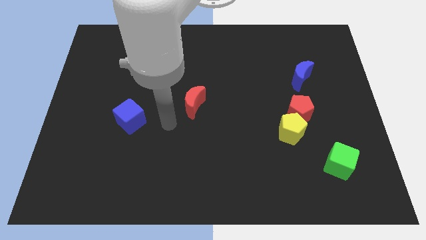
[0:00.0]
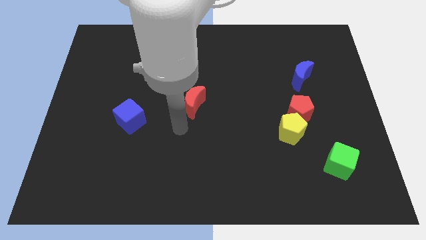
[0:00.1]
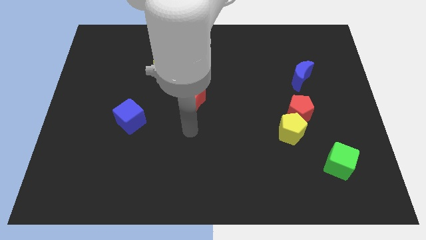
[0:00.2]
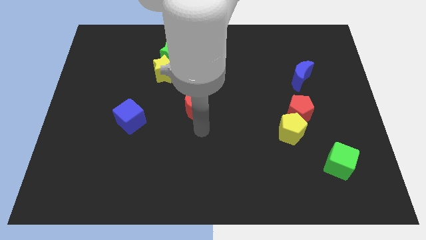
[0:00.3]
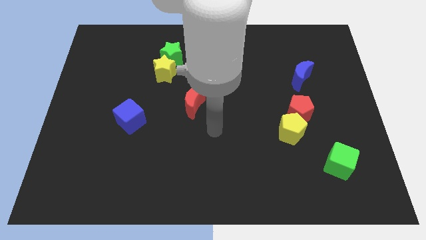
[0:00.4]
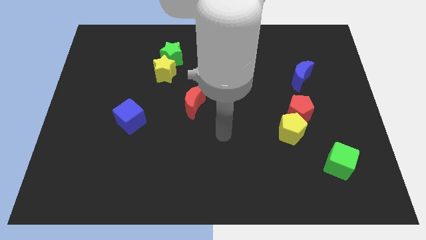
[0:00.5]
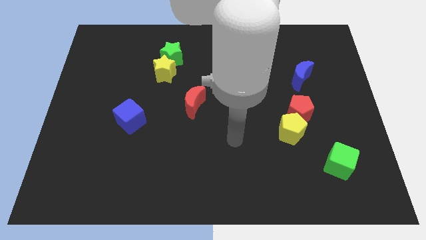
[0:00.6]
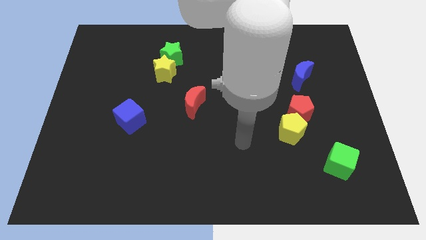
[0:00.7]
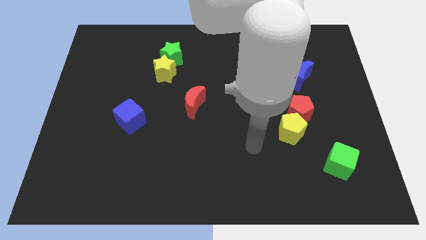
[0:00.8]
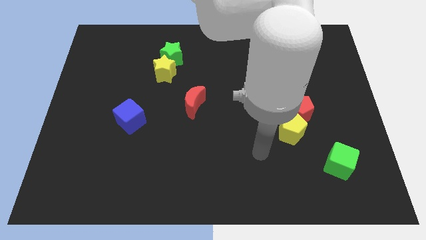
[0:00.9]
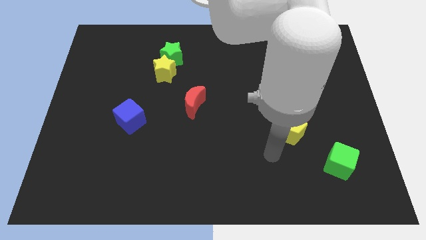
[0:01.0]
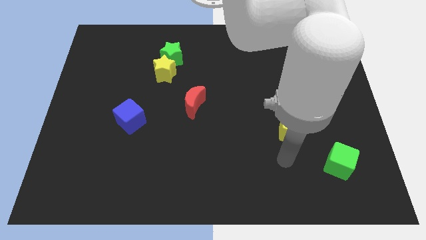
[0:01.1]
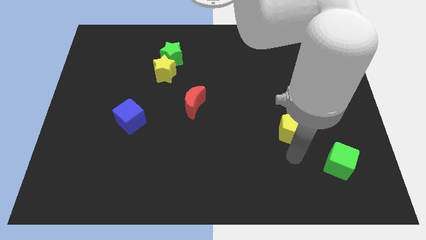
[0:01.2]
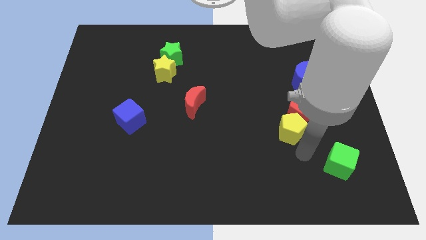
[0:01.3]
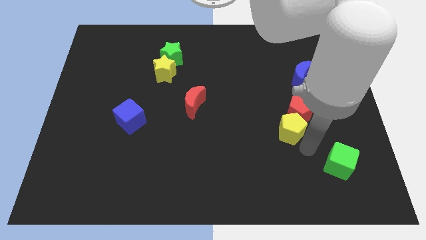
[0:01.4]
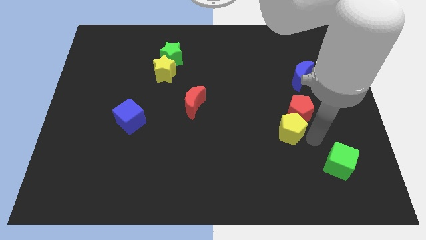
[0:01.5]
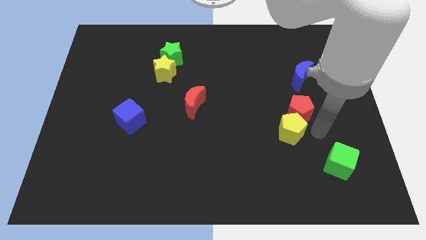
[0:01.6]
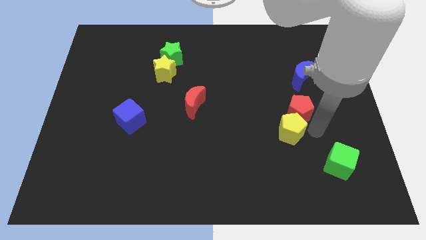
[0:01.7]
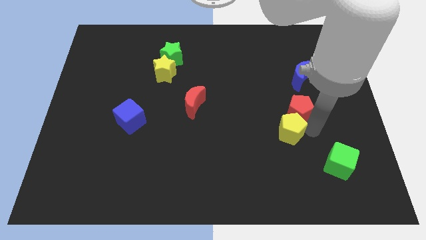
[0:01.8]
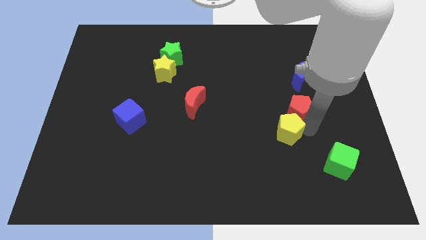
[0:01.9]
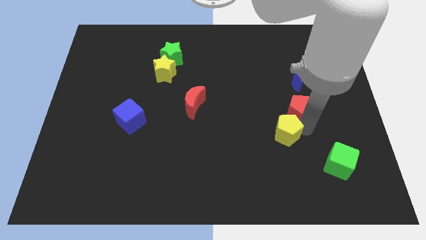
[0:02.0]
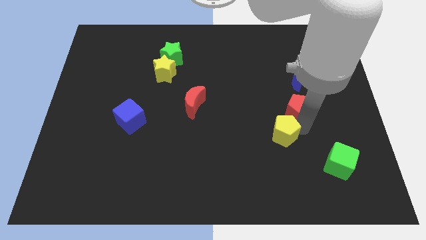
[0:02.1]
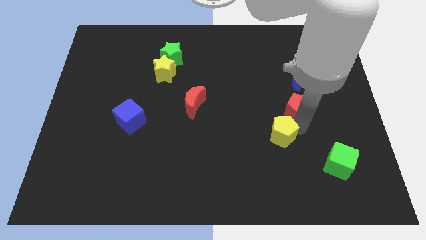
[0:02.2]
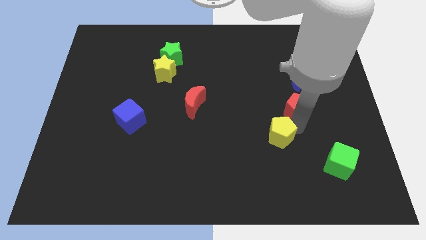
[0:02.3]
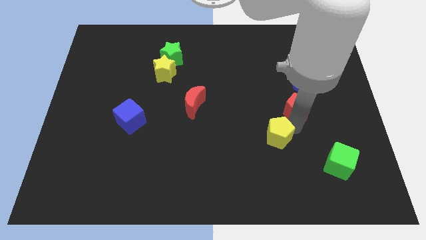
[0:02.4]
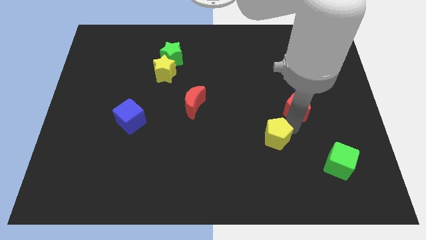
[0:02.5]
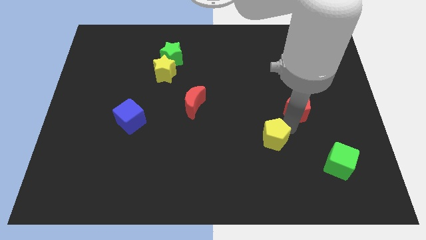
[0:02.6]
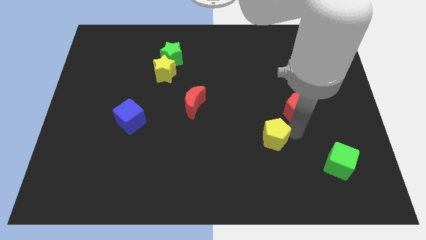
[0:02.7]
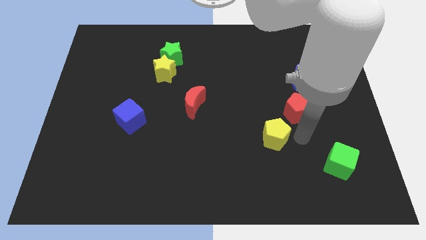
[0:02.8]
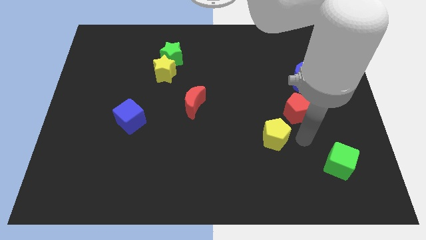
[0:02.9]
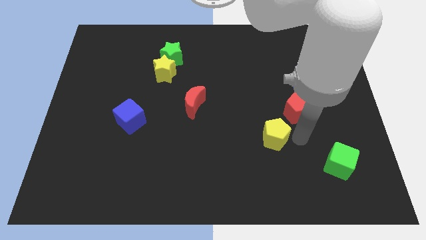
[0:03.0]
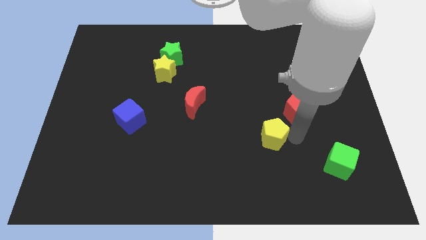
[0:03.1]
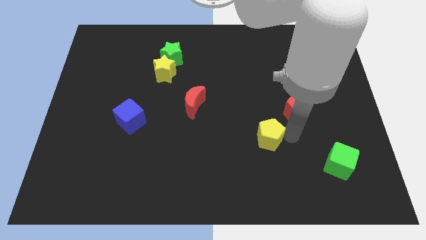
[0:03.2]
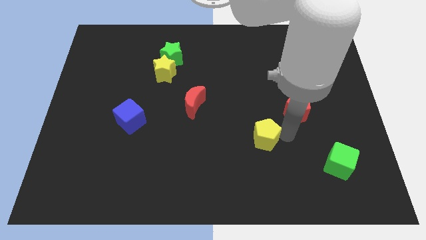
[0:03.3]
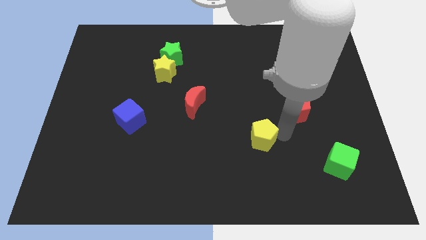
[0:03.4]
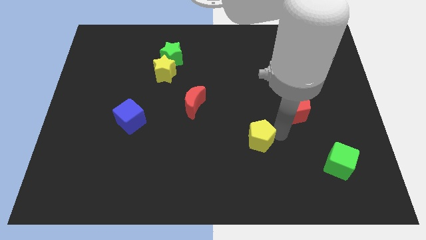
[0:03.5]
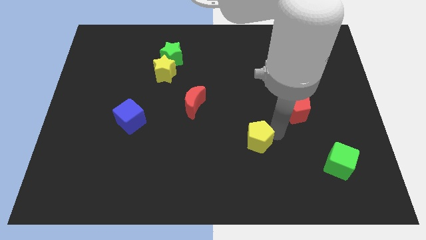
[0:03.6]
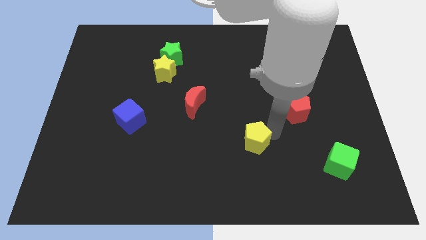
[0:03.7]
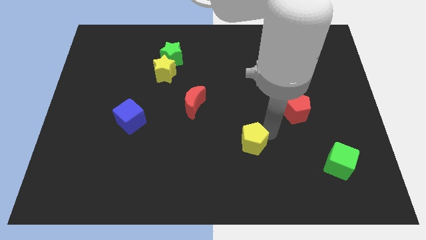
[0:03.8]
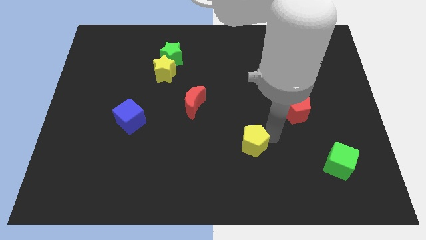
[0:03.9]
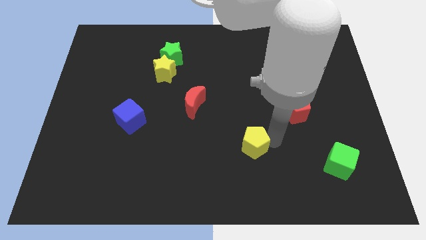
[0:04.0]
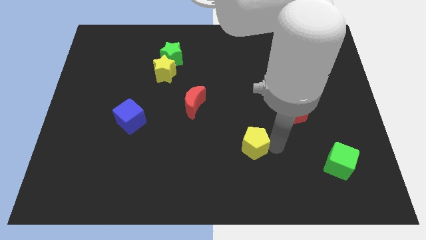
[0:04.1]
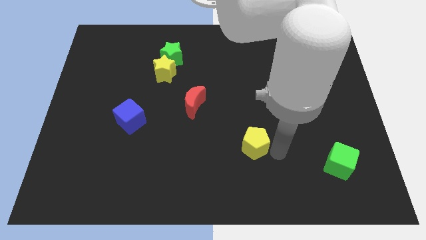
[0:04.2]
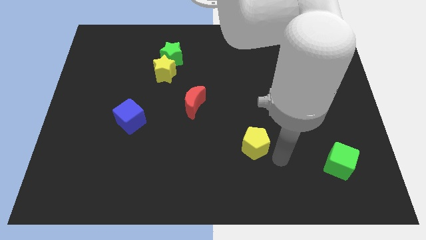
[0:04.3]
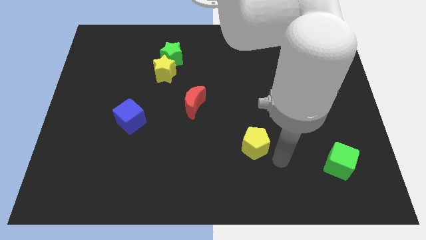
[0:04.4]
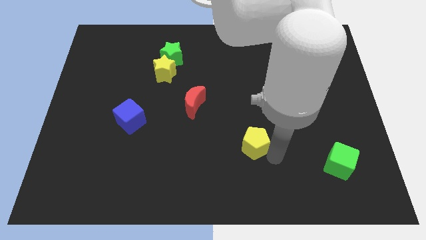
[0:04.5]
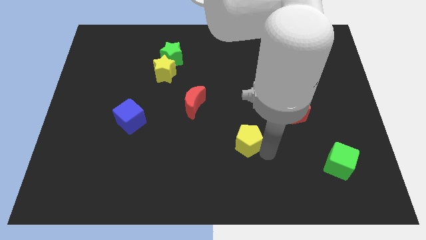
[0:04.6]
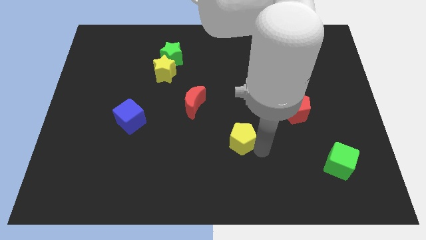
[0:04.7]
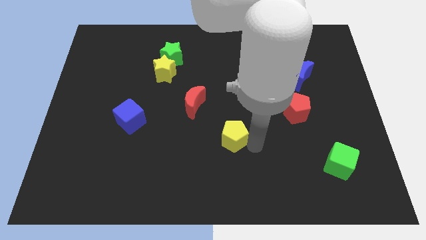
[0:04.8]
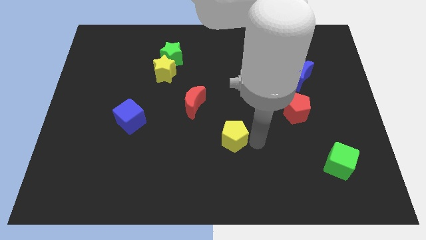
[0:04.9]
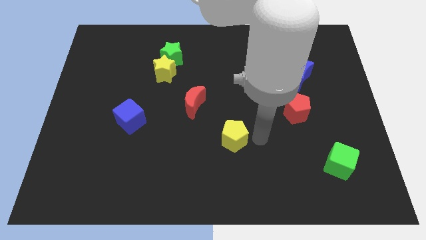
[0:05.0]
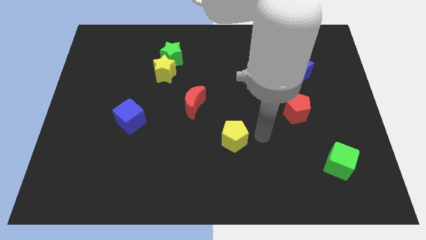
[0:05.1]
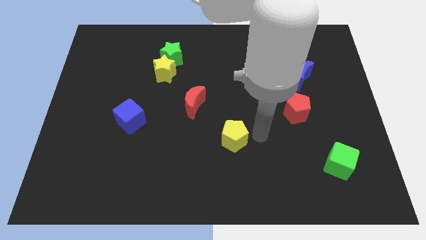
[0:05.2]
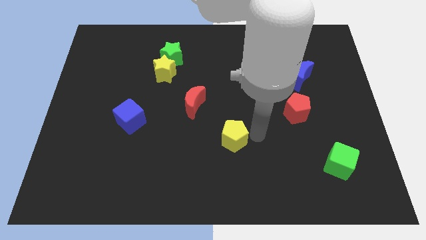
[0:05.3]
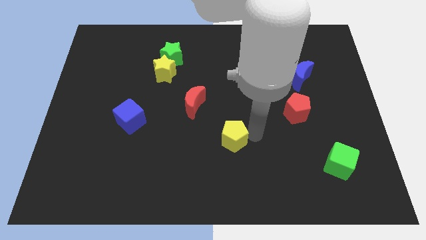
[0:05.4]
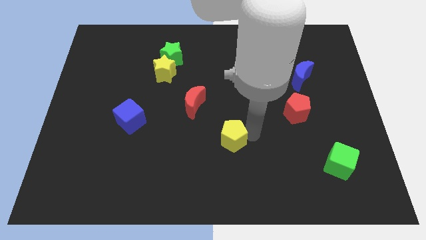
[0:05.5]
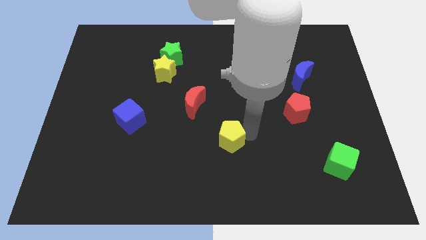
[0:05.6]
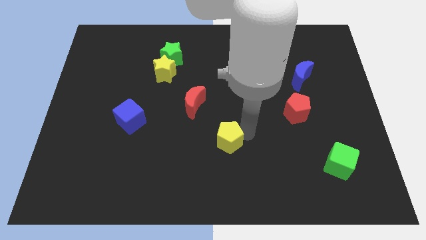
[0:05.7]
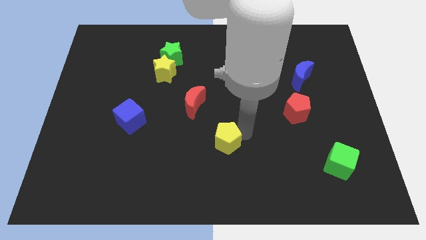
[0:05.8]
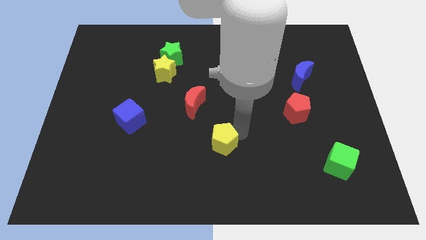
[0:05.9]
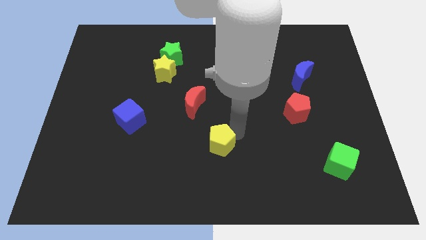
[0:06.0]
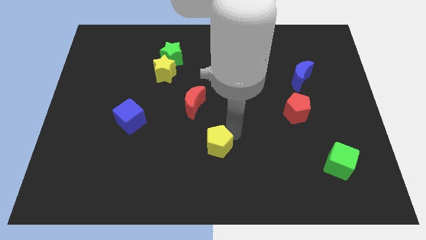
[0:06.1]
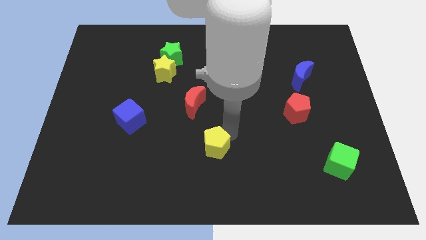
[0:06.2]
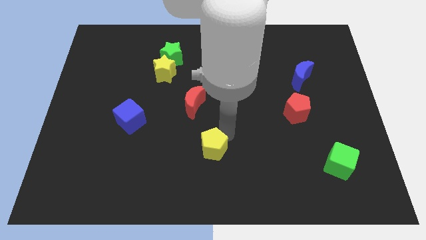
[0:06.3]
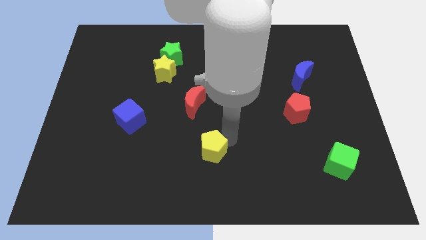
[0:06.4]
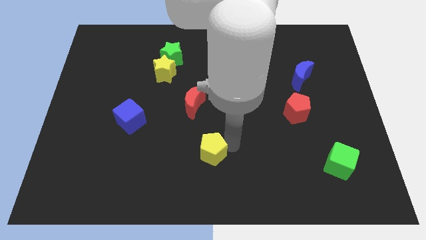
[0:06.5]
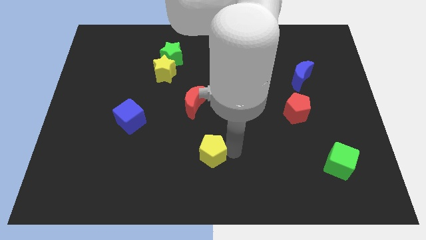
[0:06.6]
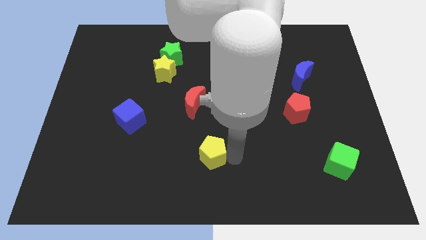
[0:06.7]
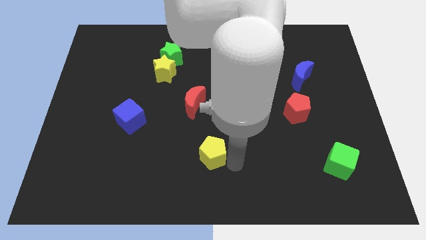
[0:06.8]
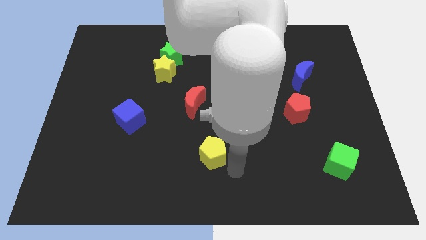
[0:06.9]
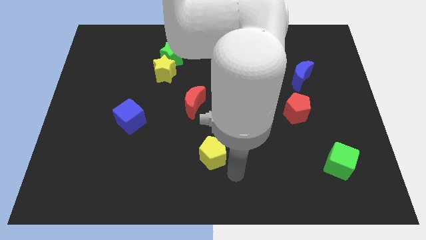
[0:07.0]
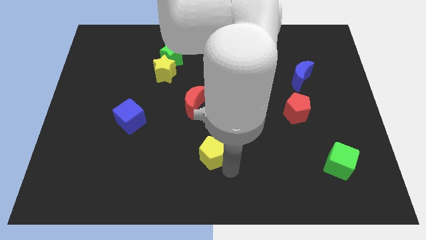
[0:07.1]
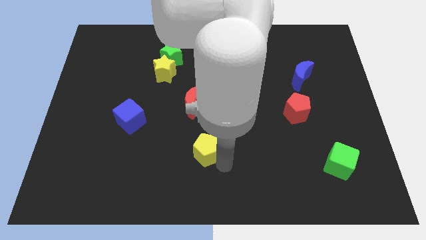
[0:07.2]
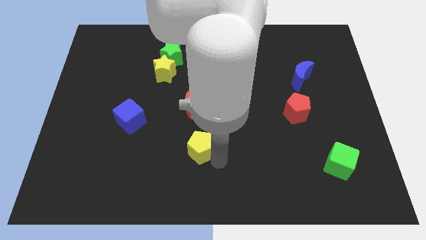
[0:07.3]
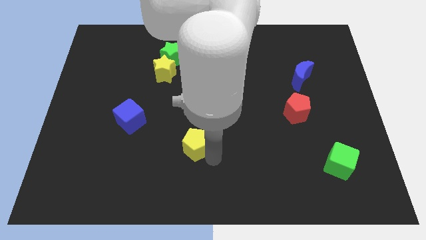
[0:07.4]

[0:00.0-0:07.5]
slide the yellow pentagon left

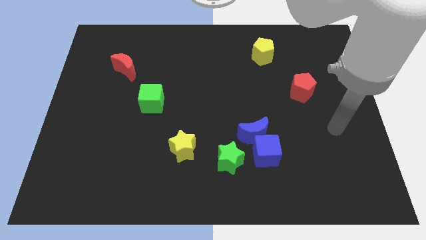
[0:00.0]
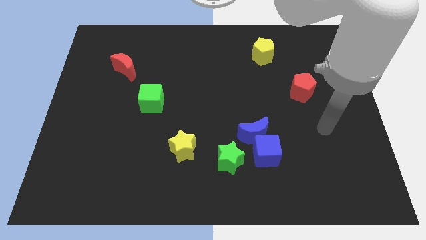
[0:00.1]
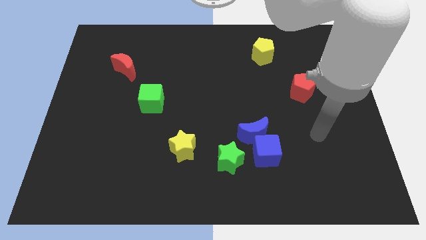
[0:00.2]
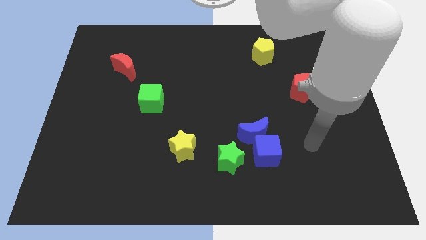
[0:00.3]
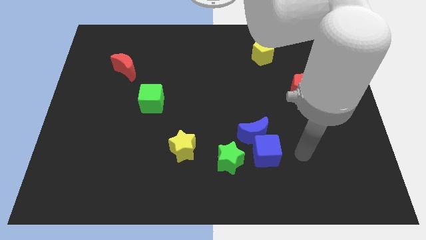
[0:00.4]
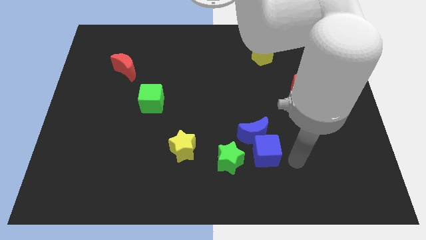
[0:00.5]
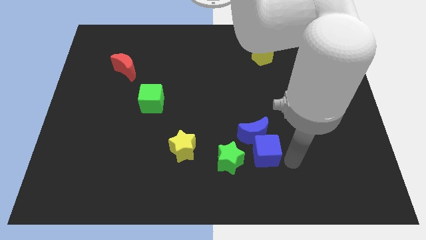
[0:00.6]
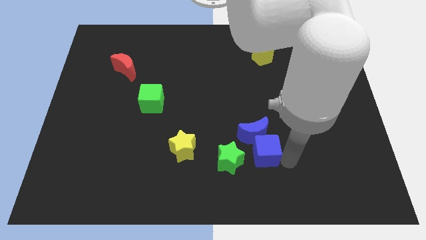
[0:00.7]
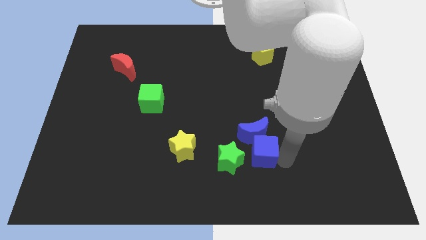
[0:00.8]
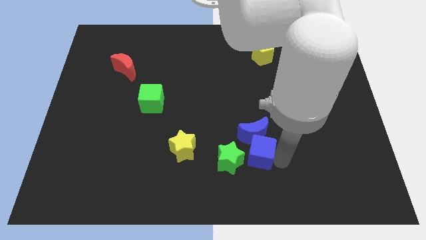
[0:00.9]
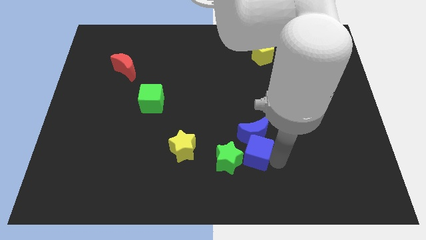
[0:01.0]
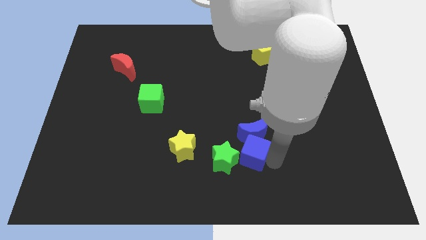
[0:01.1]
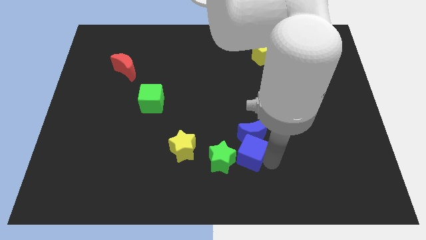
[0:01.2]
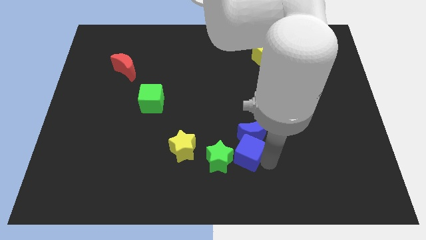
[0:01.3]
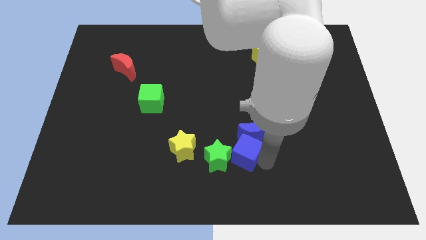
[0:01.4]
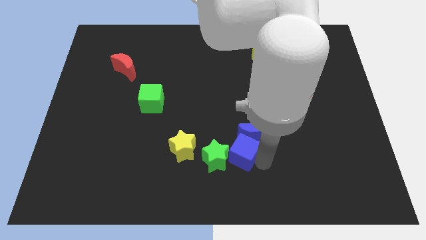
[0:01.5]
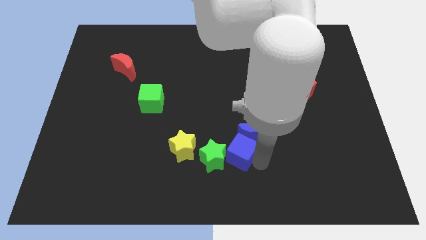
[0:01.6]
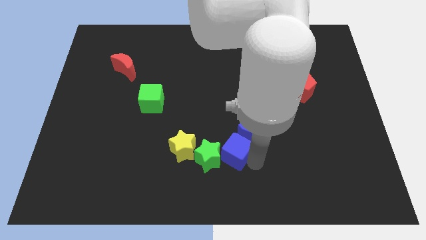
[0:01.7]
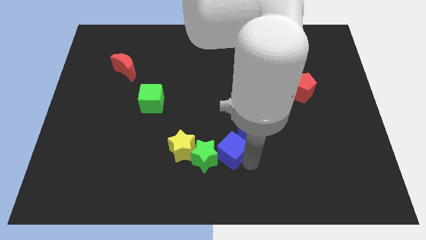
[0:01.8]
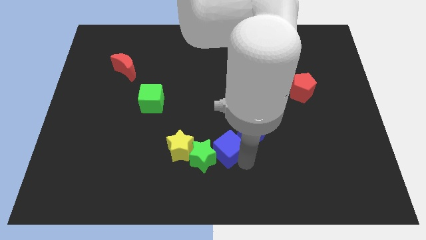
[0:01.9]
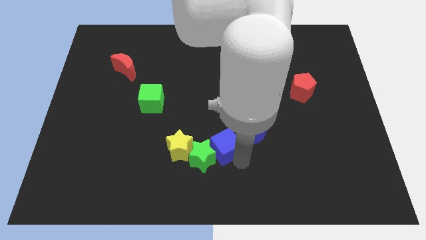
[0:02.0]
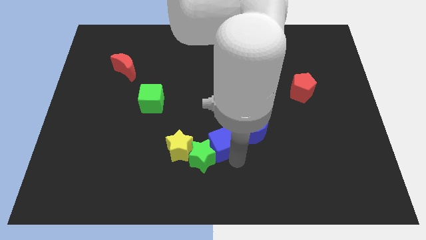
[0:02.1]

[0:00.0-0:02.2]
push the blue cube up and to the left a little bit
